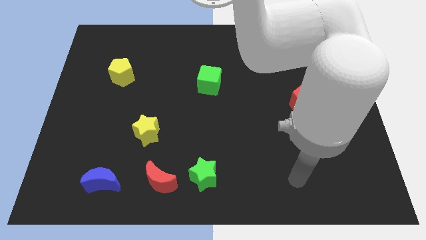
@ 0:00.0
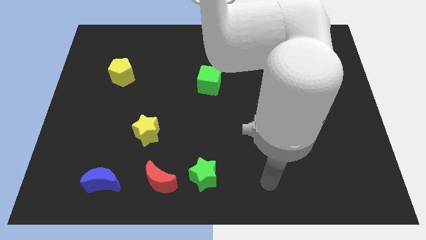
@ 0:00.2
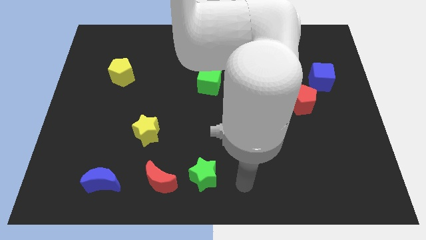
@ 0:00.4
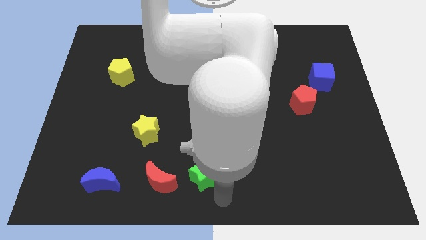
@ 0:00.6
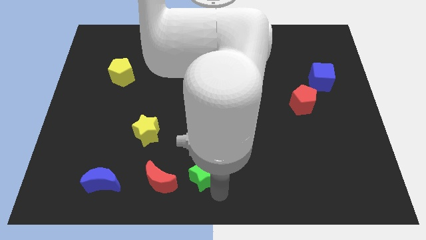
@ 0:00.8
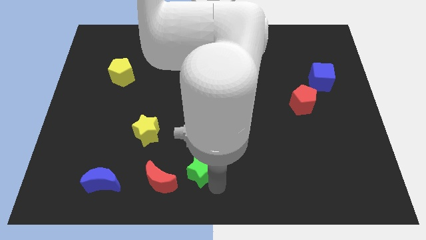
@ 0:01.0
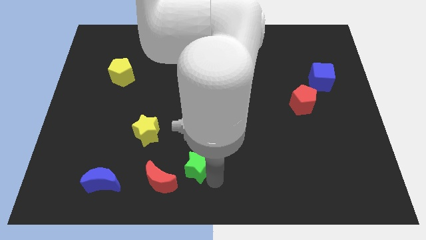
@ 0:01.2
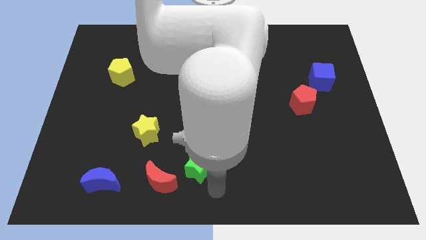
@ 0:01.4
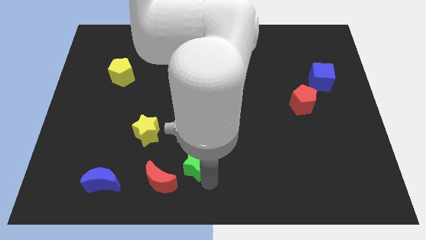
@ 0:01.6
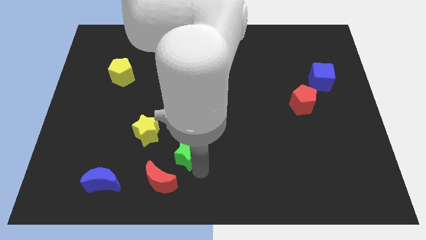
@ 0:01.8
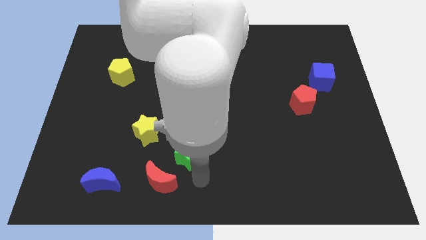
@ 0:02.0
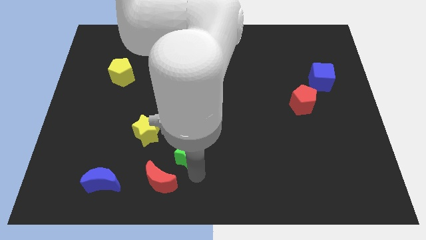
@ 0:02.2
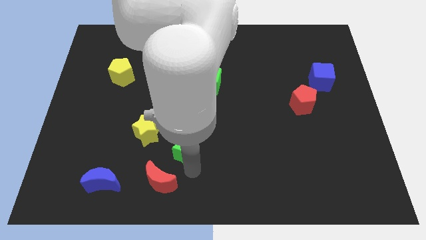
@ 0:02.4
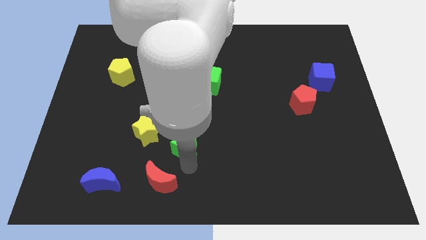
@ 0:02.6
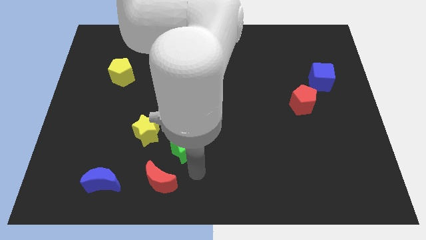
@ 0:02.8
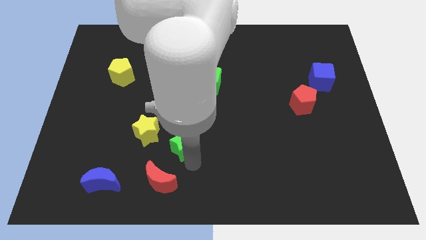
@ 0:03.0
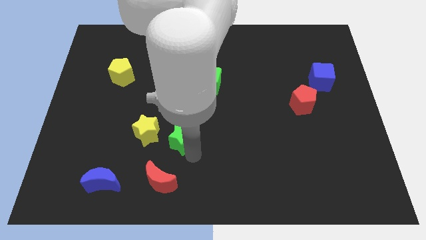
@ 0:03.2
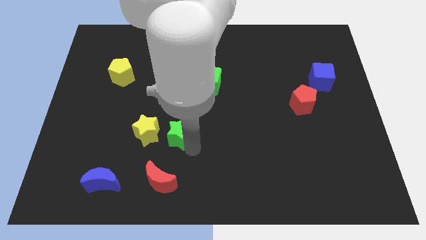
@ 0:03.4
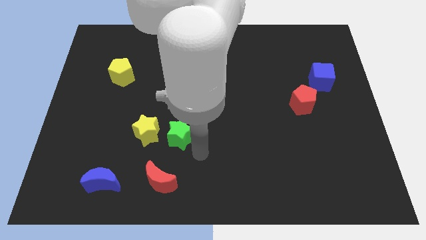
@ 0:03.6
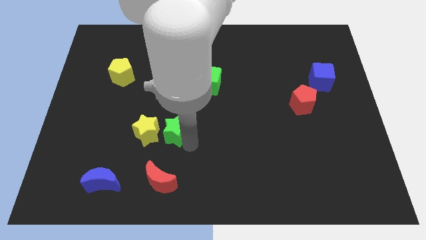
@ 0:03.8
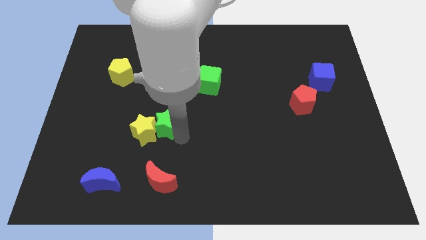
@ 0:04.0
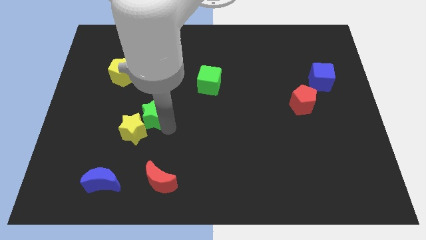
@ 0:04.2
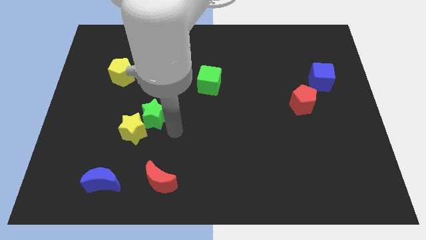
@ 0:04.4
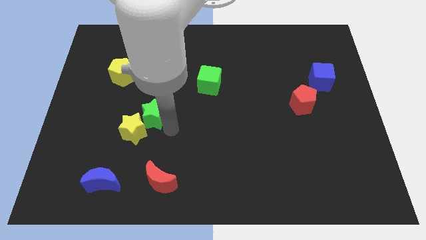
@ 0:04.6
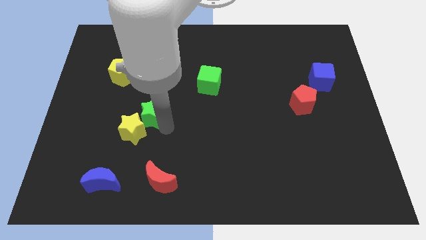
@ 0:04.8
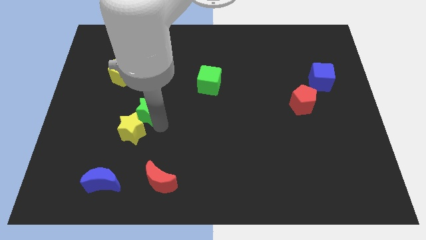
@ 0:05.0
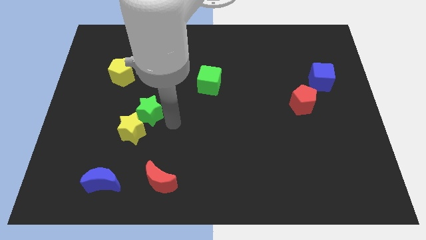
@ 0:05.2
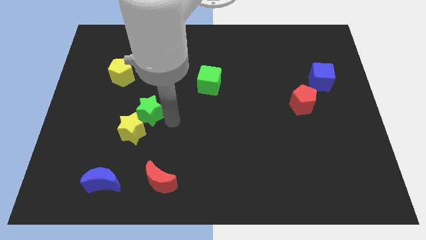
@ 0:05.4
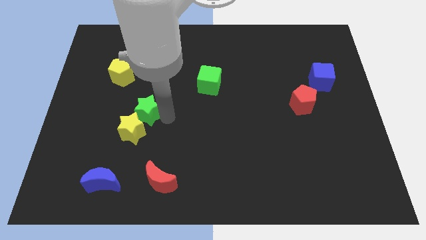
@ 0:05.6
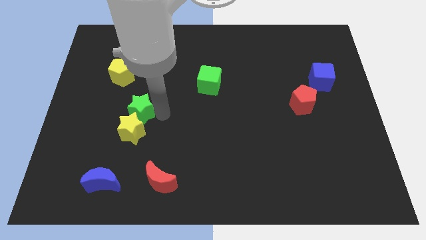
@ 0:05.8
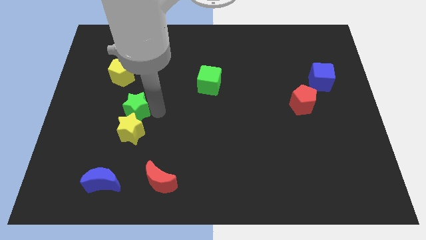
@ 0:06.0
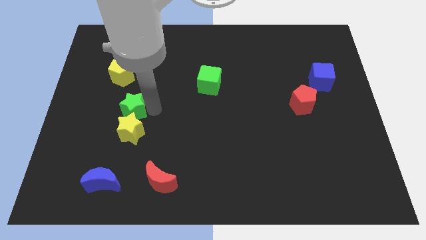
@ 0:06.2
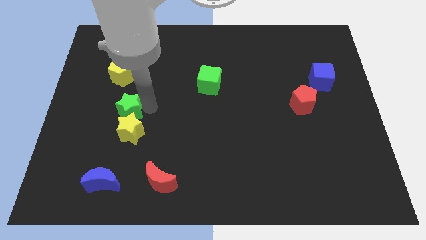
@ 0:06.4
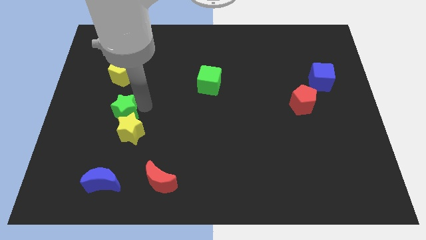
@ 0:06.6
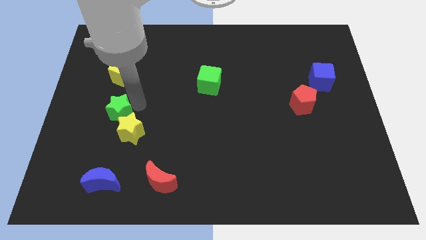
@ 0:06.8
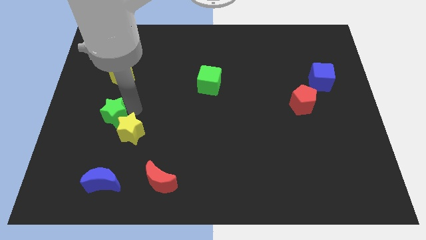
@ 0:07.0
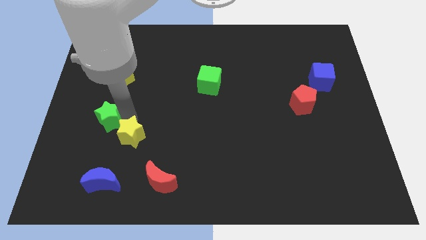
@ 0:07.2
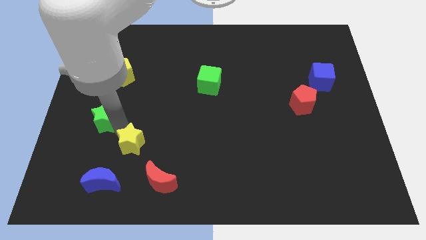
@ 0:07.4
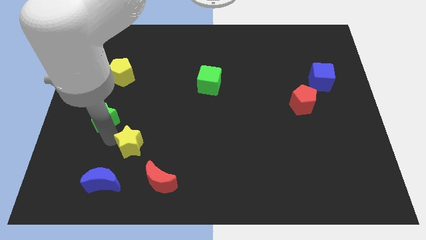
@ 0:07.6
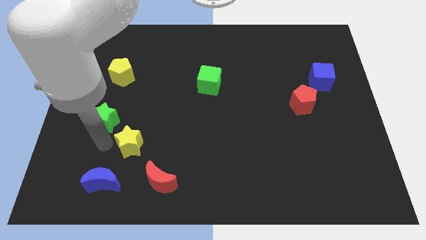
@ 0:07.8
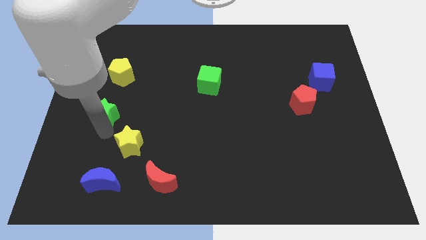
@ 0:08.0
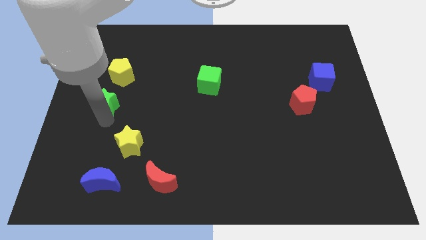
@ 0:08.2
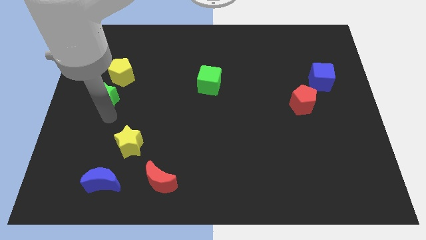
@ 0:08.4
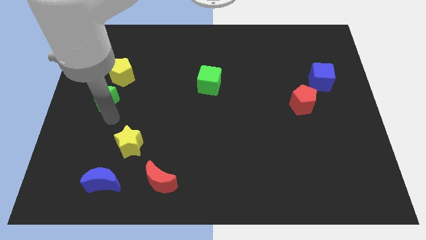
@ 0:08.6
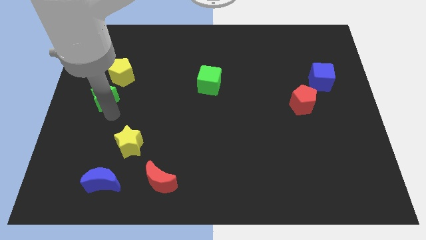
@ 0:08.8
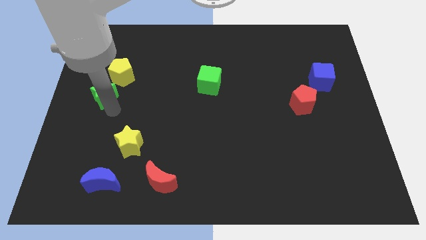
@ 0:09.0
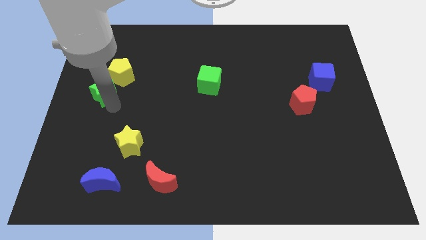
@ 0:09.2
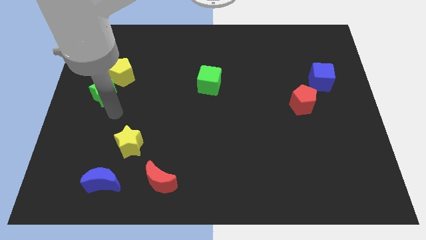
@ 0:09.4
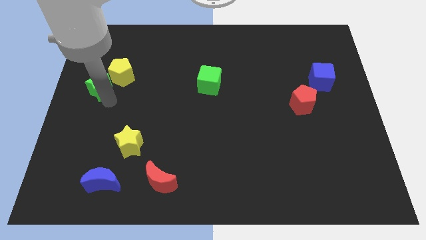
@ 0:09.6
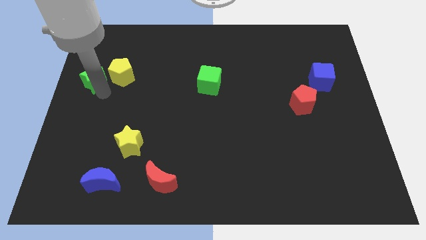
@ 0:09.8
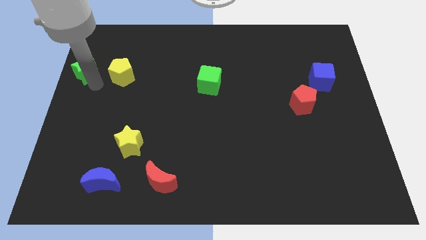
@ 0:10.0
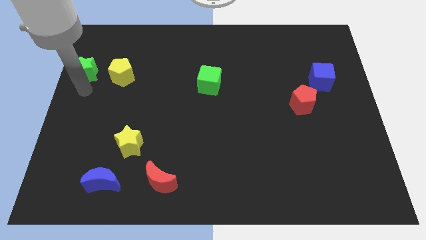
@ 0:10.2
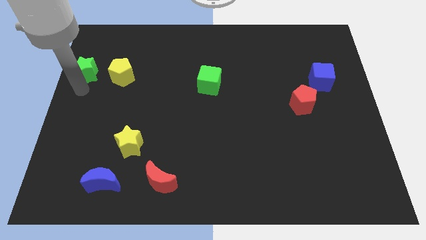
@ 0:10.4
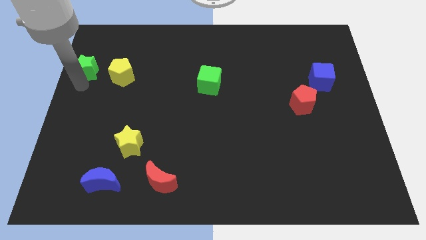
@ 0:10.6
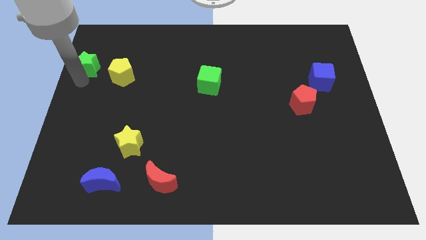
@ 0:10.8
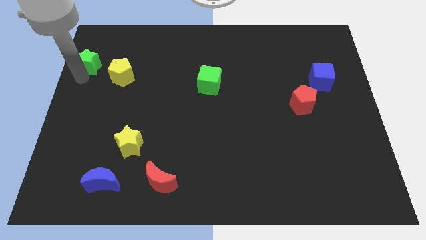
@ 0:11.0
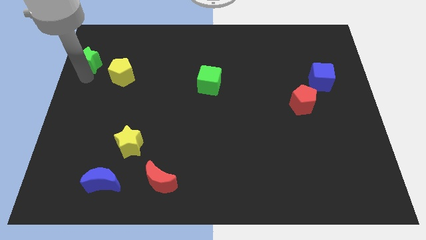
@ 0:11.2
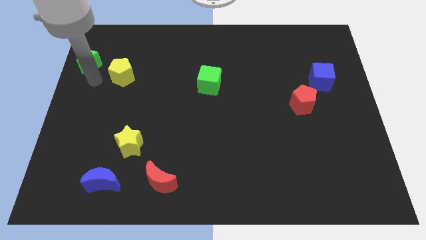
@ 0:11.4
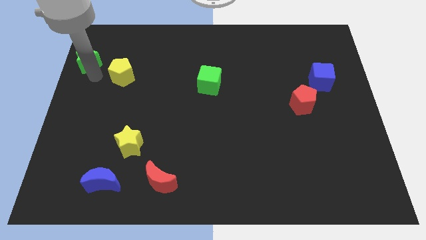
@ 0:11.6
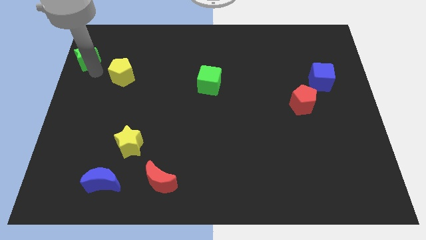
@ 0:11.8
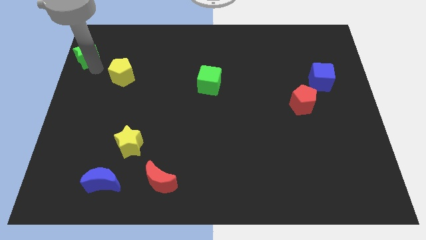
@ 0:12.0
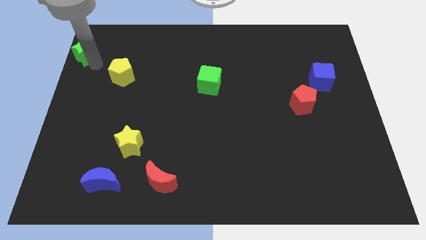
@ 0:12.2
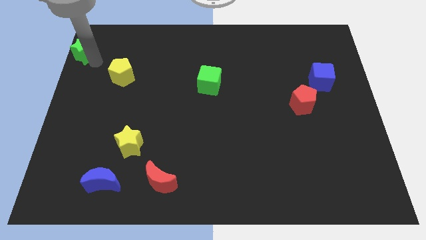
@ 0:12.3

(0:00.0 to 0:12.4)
move the green star to the top left corner

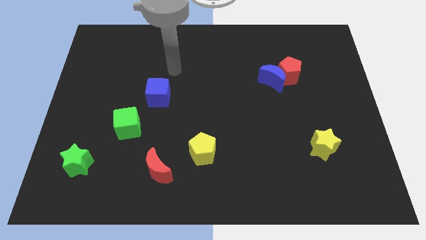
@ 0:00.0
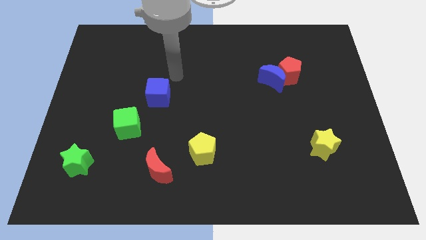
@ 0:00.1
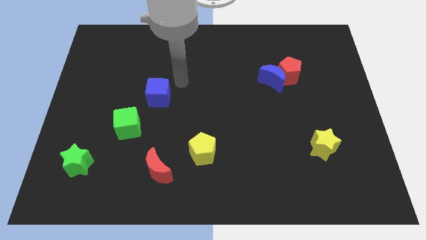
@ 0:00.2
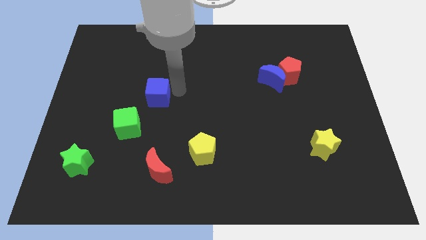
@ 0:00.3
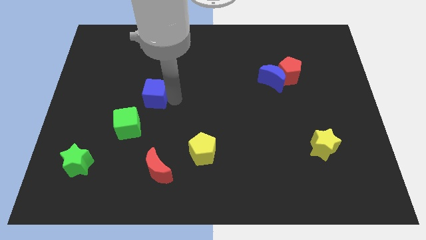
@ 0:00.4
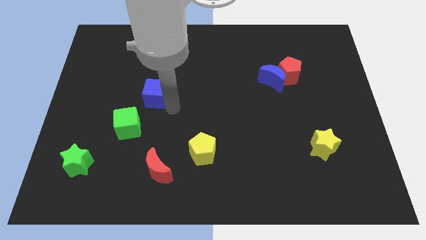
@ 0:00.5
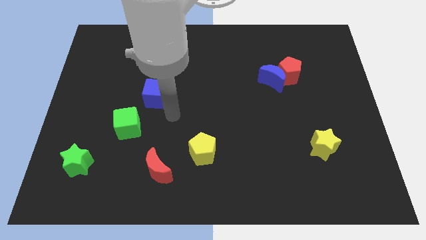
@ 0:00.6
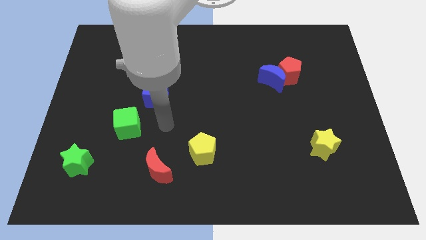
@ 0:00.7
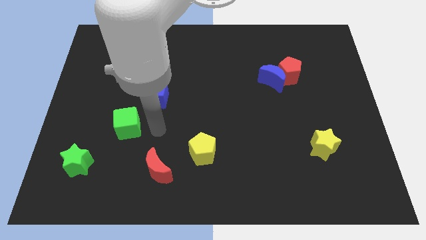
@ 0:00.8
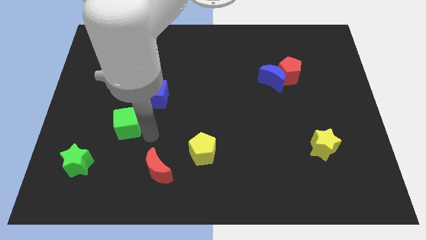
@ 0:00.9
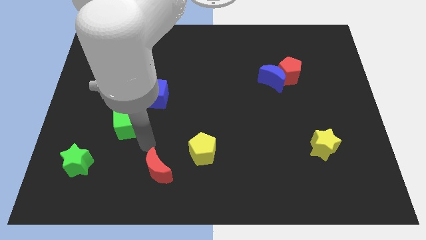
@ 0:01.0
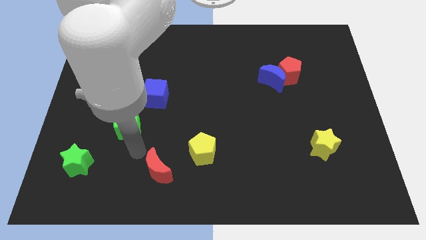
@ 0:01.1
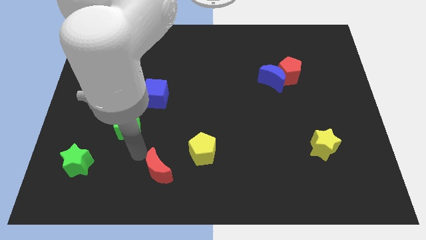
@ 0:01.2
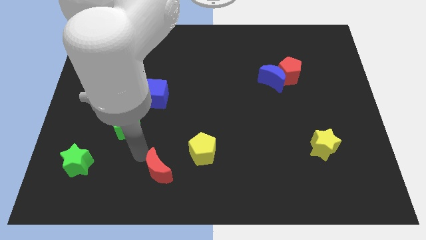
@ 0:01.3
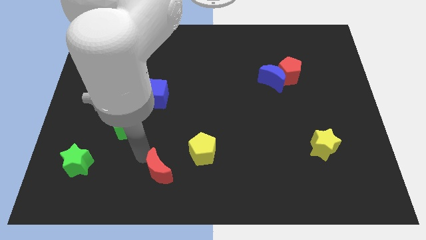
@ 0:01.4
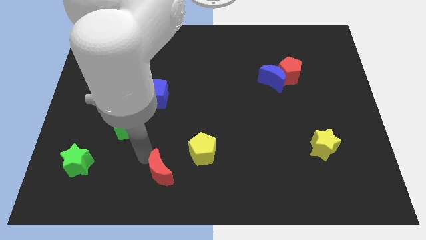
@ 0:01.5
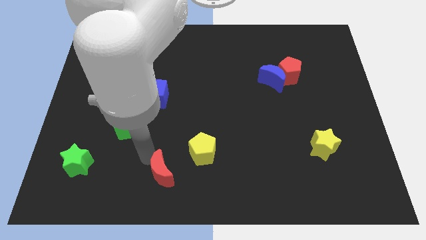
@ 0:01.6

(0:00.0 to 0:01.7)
push the red moon to the bottom

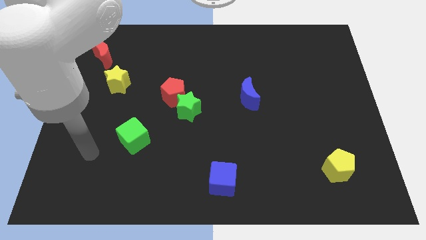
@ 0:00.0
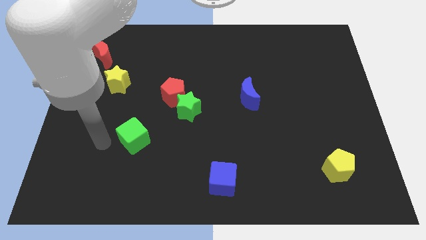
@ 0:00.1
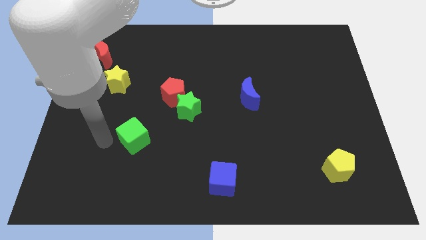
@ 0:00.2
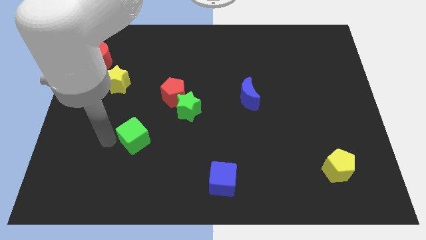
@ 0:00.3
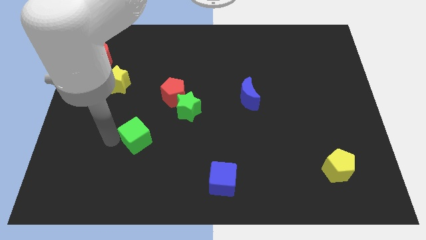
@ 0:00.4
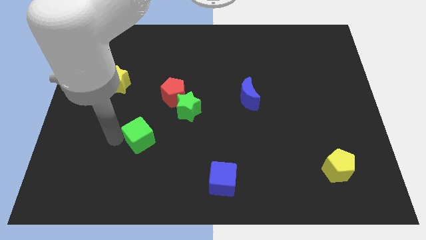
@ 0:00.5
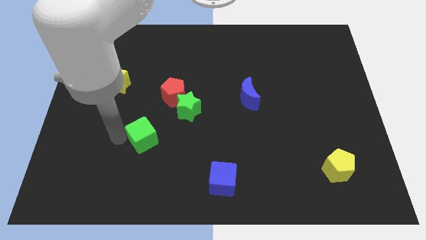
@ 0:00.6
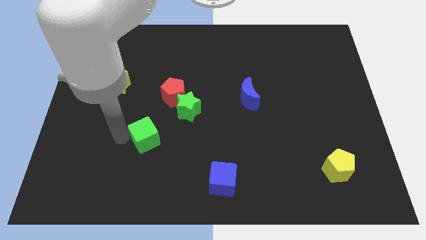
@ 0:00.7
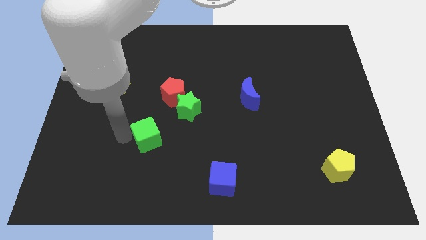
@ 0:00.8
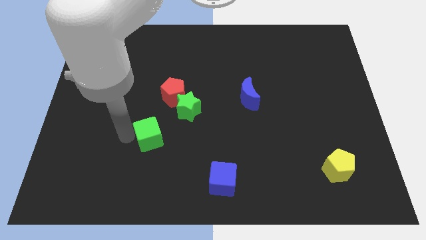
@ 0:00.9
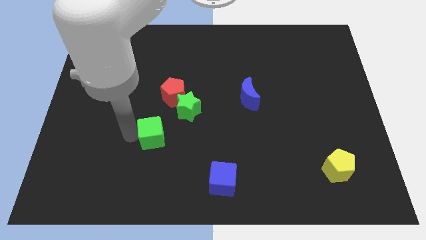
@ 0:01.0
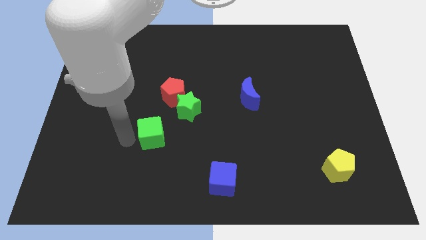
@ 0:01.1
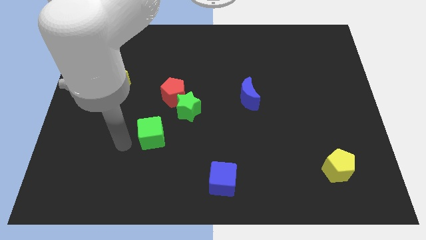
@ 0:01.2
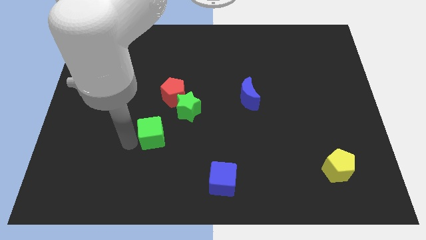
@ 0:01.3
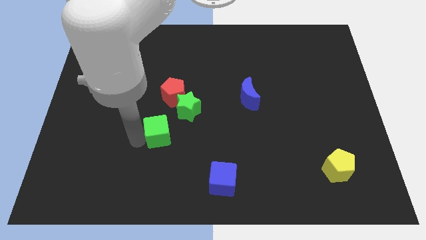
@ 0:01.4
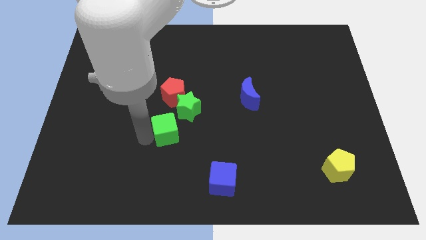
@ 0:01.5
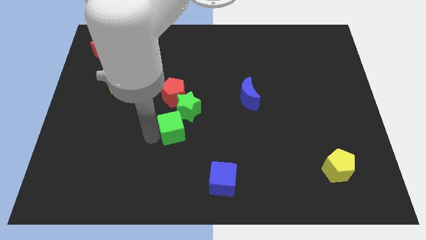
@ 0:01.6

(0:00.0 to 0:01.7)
put the green cube to the middle
